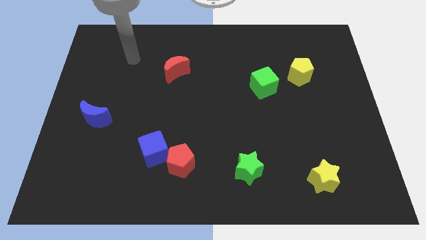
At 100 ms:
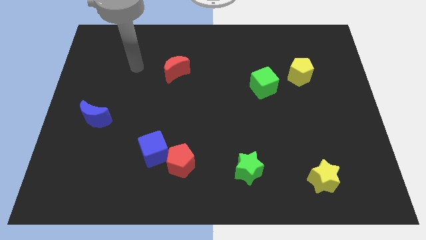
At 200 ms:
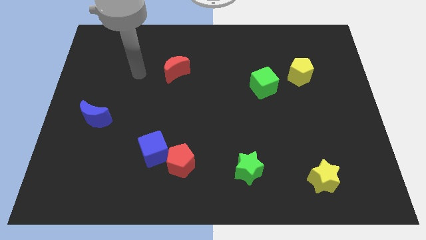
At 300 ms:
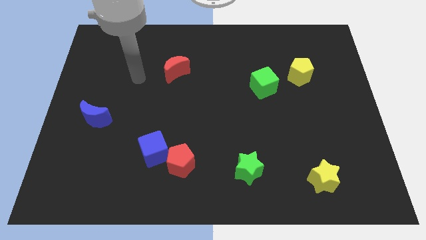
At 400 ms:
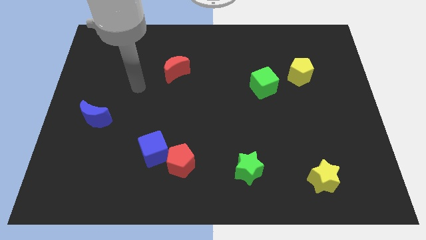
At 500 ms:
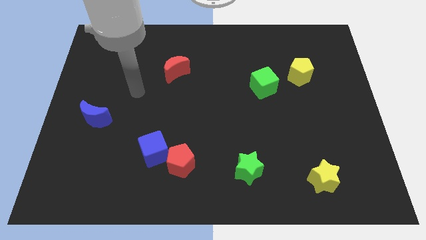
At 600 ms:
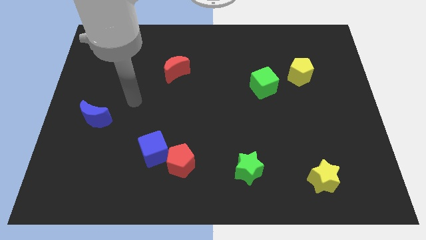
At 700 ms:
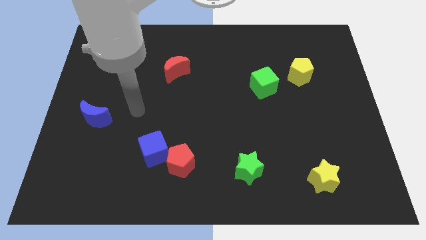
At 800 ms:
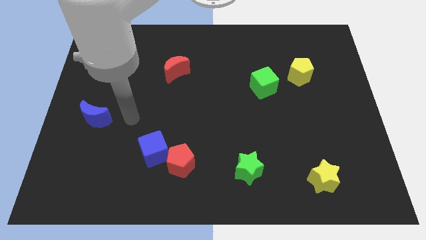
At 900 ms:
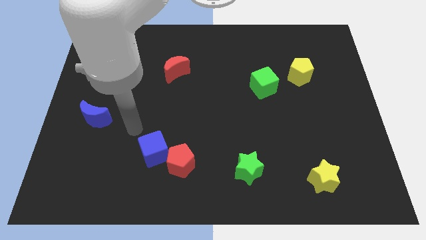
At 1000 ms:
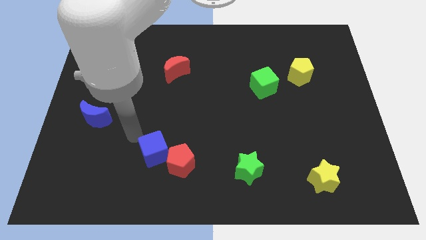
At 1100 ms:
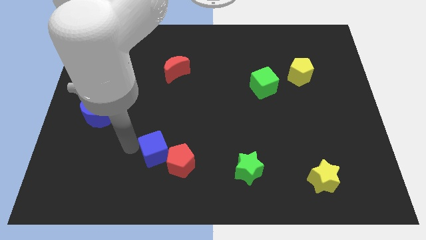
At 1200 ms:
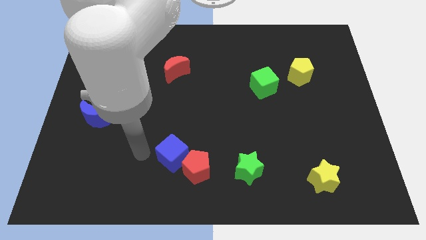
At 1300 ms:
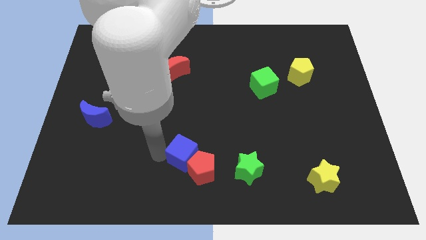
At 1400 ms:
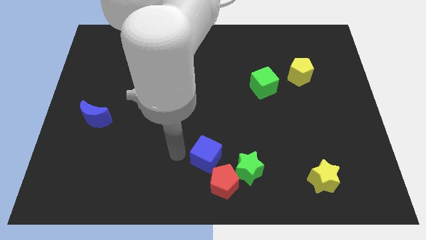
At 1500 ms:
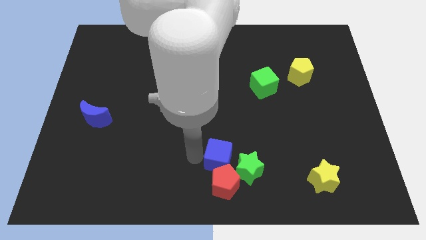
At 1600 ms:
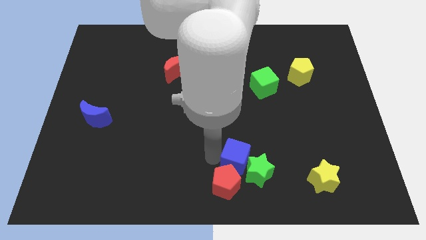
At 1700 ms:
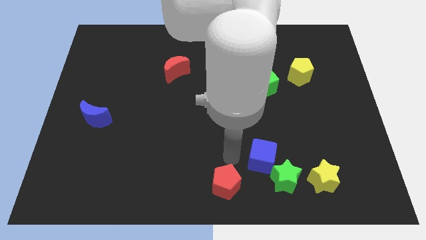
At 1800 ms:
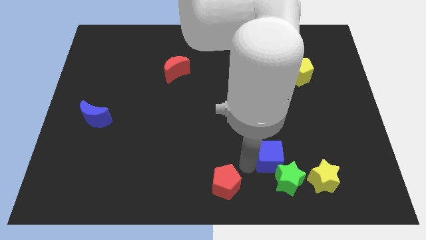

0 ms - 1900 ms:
separate the red pentagon from the blue cube

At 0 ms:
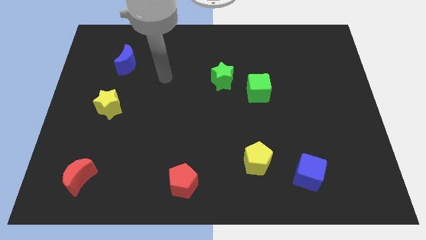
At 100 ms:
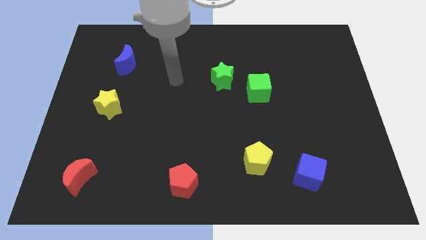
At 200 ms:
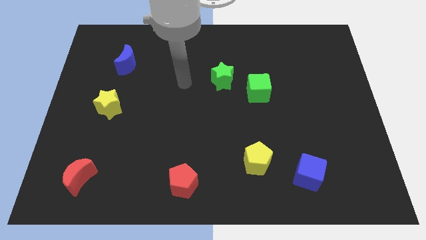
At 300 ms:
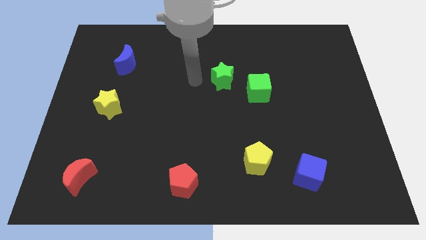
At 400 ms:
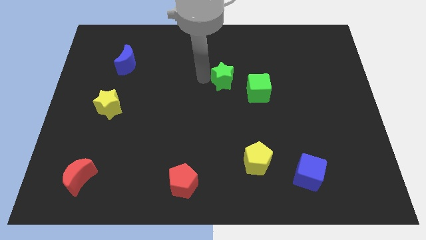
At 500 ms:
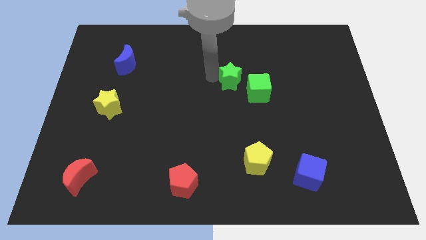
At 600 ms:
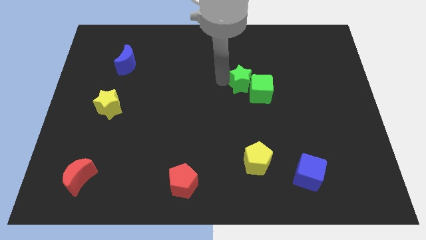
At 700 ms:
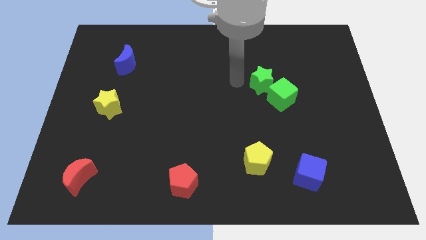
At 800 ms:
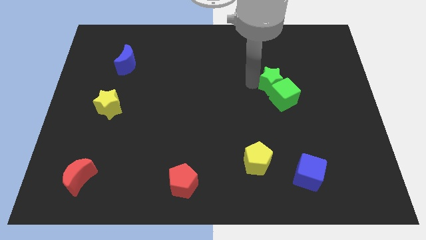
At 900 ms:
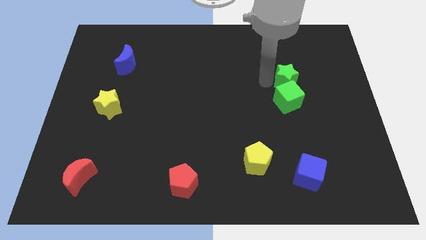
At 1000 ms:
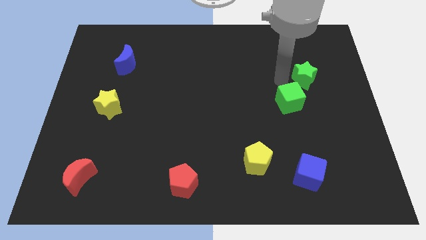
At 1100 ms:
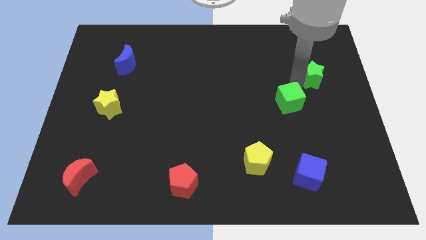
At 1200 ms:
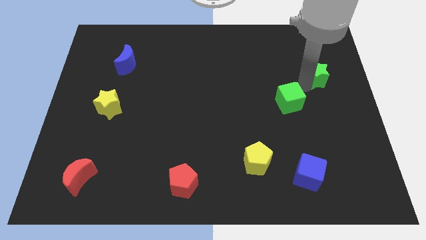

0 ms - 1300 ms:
move the green cube away from the green star

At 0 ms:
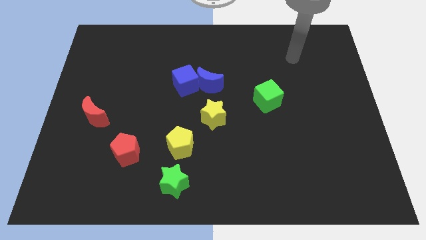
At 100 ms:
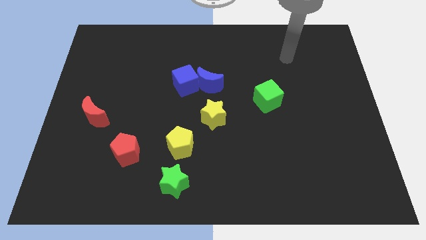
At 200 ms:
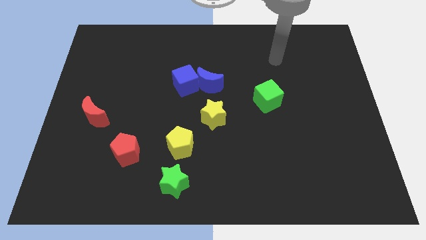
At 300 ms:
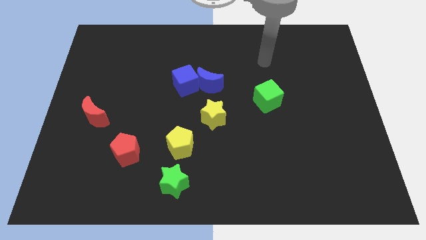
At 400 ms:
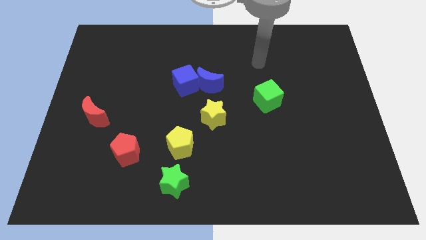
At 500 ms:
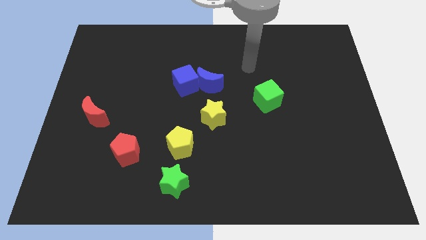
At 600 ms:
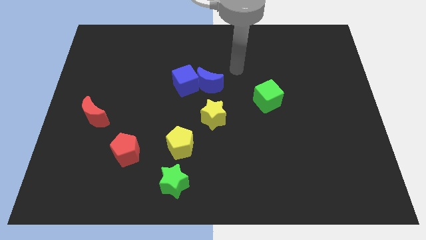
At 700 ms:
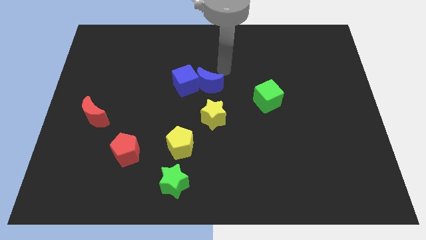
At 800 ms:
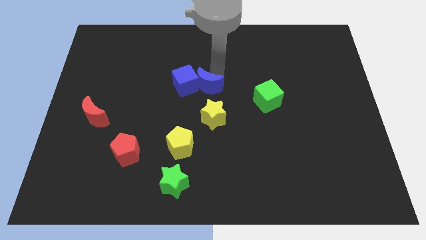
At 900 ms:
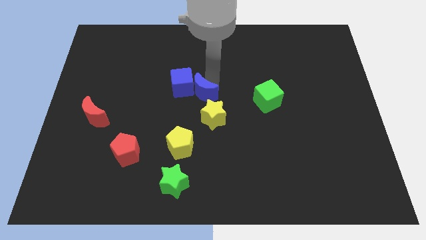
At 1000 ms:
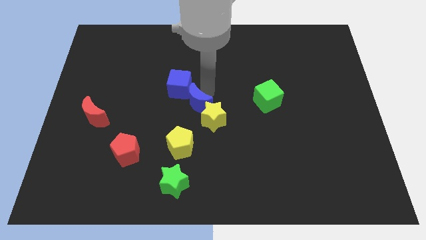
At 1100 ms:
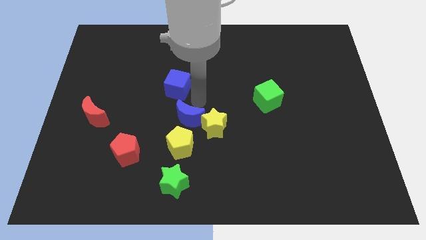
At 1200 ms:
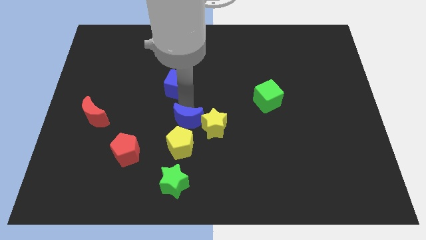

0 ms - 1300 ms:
move the blue cube away from the blue moon

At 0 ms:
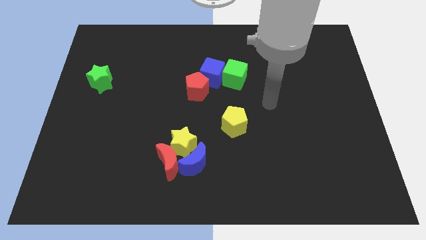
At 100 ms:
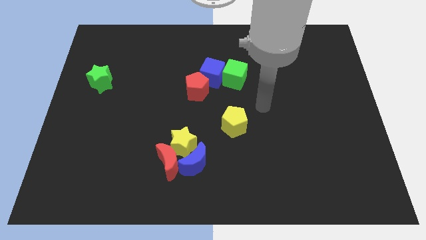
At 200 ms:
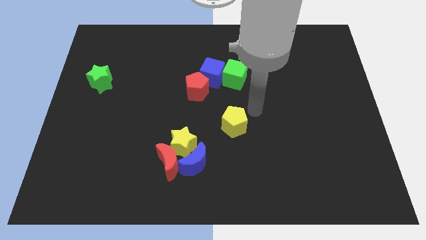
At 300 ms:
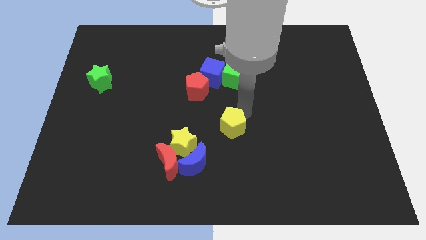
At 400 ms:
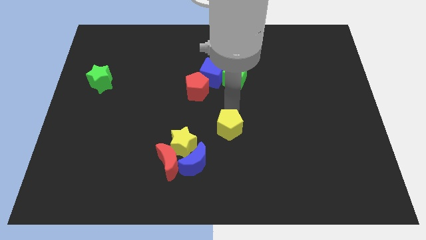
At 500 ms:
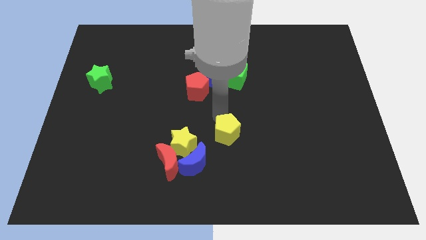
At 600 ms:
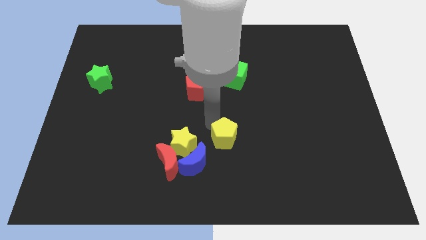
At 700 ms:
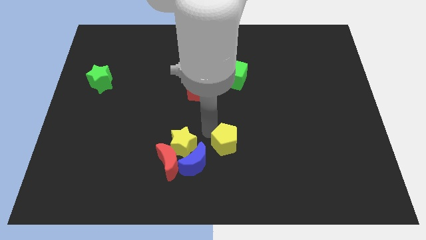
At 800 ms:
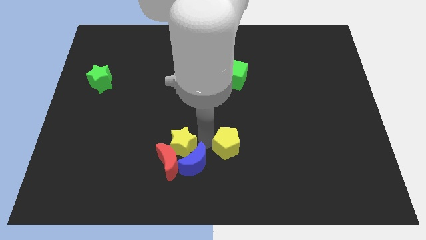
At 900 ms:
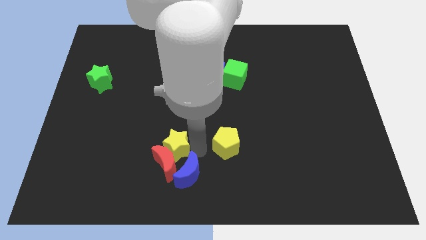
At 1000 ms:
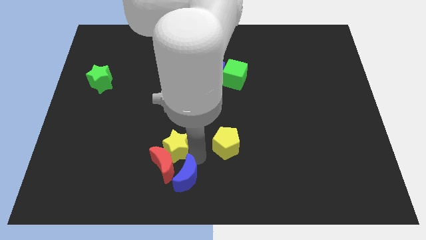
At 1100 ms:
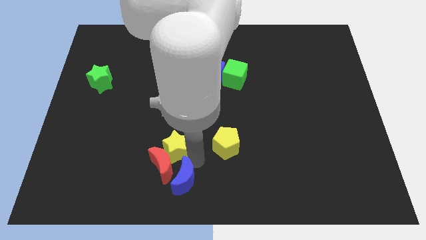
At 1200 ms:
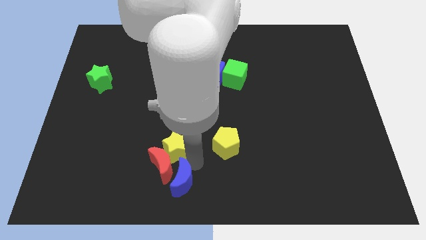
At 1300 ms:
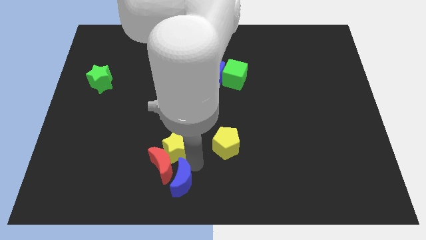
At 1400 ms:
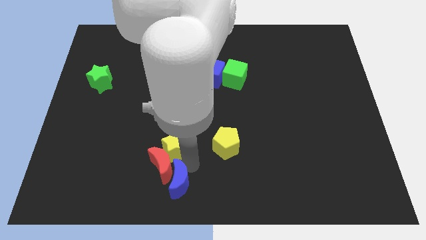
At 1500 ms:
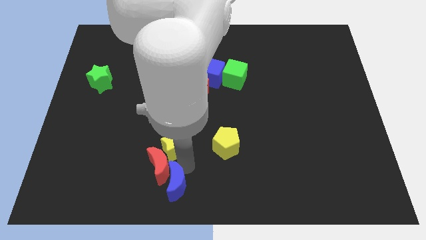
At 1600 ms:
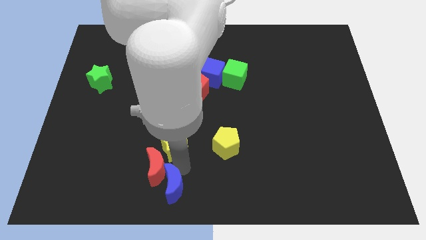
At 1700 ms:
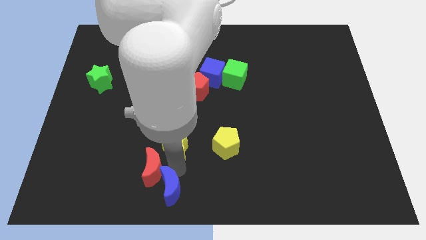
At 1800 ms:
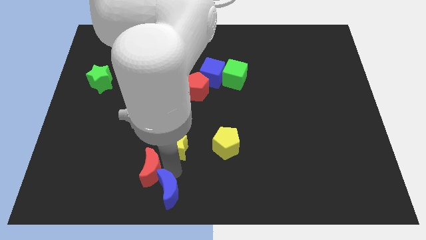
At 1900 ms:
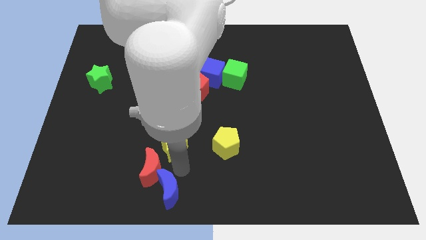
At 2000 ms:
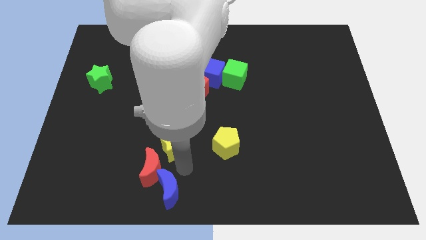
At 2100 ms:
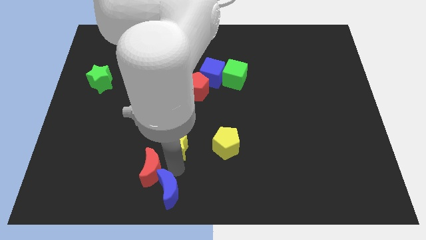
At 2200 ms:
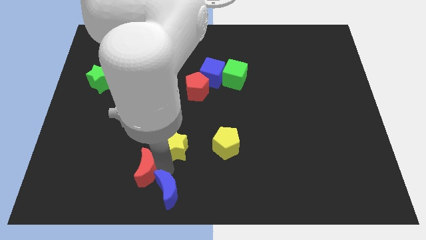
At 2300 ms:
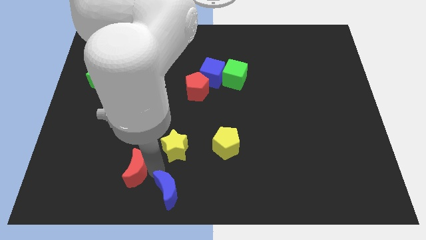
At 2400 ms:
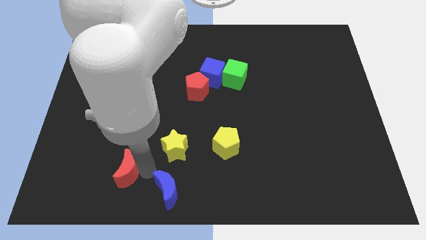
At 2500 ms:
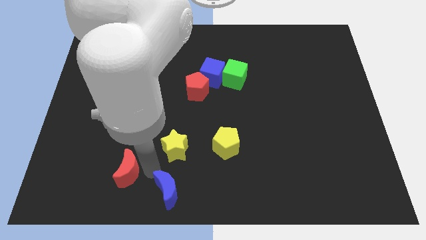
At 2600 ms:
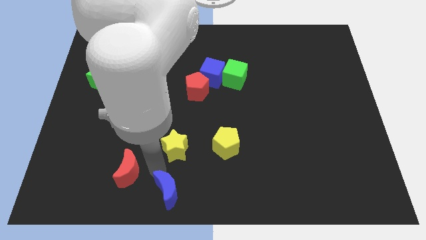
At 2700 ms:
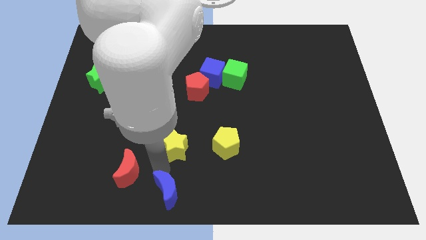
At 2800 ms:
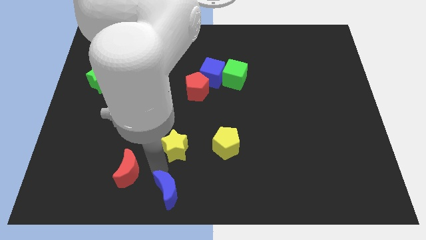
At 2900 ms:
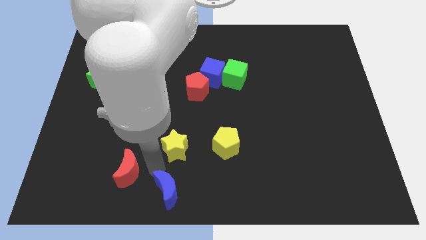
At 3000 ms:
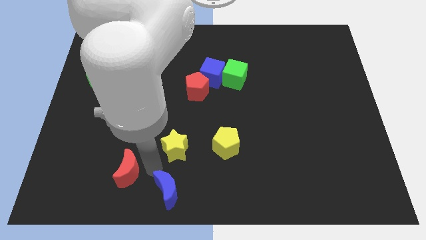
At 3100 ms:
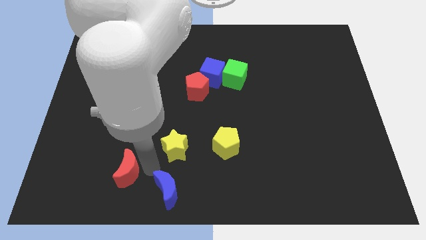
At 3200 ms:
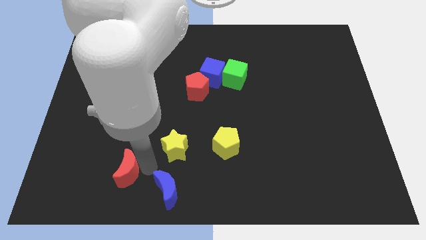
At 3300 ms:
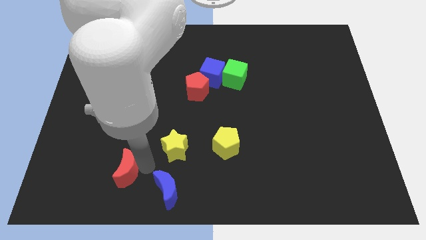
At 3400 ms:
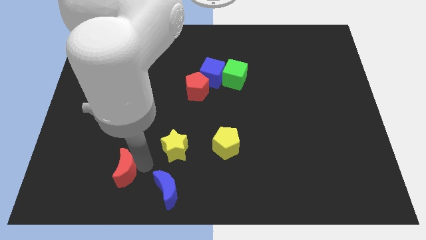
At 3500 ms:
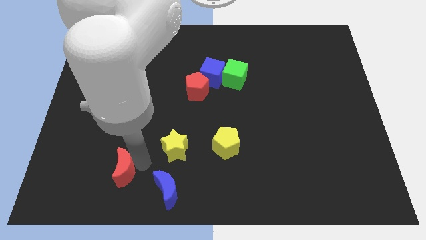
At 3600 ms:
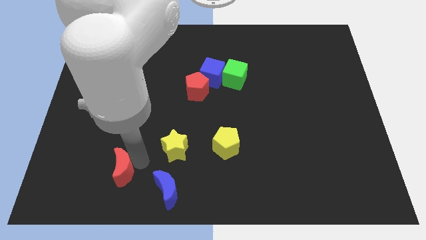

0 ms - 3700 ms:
move the red moon away from the yellow star and blue moon

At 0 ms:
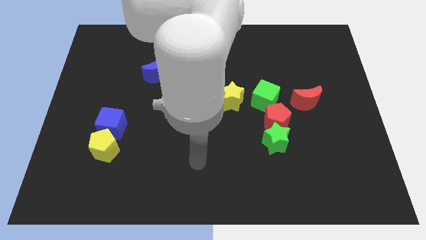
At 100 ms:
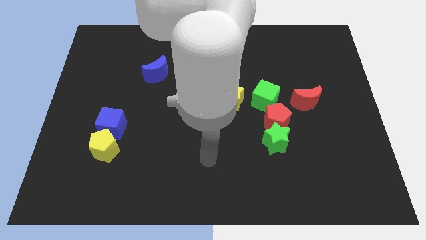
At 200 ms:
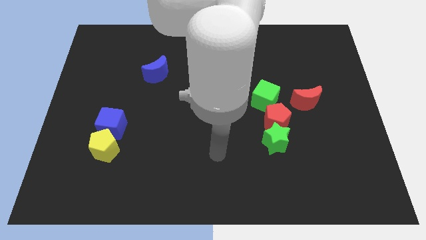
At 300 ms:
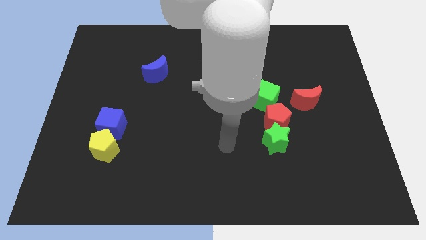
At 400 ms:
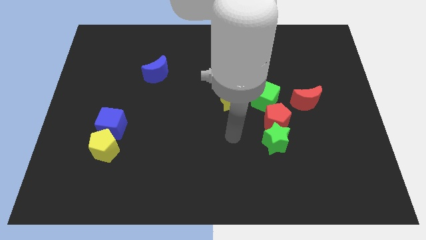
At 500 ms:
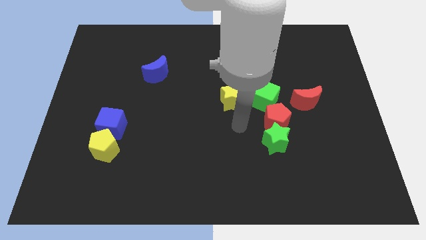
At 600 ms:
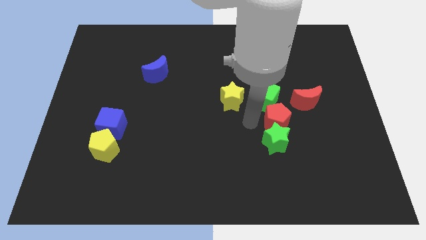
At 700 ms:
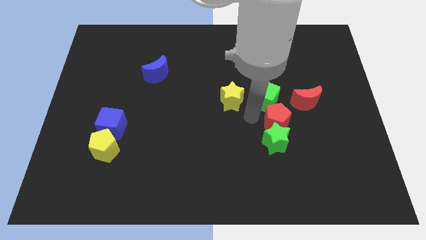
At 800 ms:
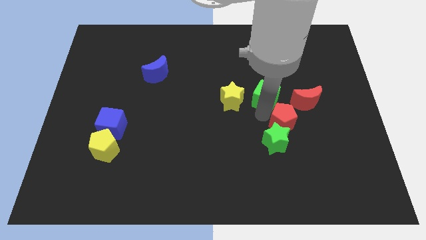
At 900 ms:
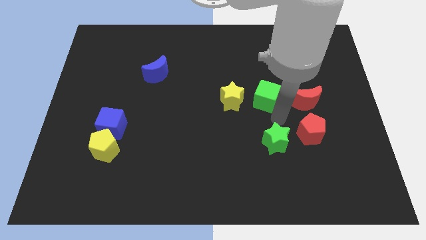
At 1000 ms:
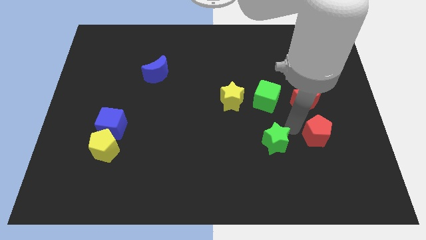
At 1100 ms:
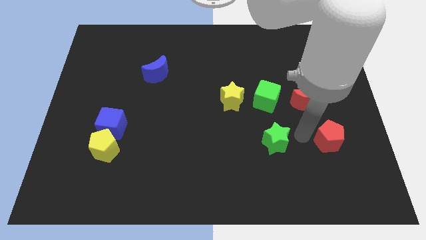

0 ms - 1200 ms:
pull the green star apart from the red pentagon
